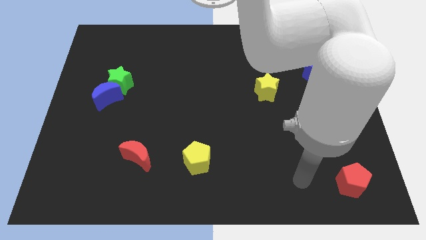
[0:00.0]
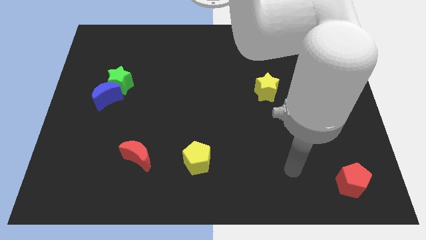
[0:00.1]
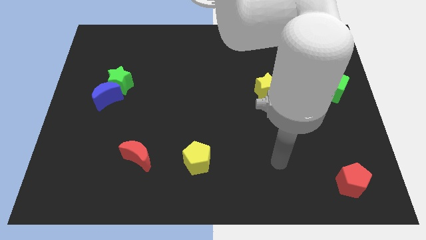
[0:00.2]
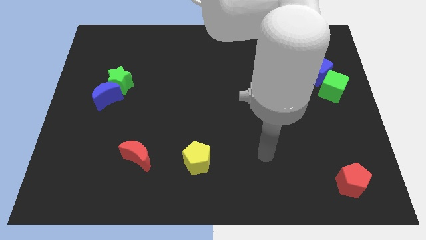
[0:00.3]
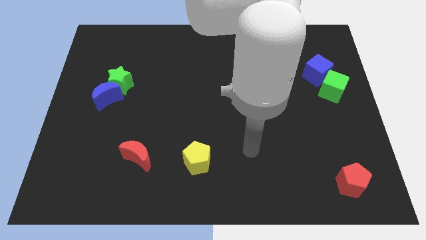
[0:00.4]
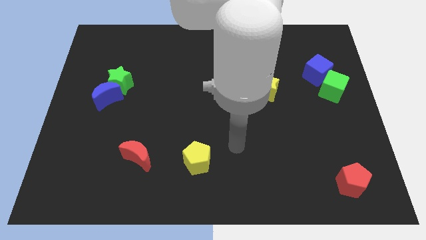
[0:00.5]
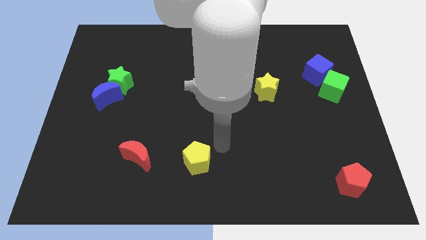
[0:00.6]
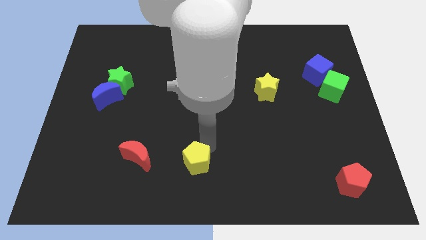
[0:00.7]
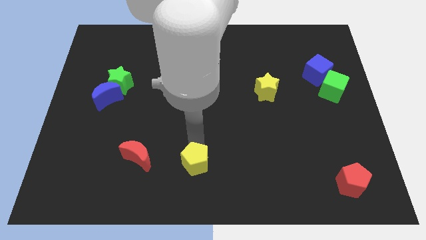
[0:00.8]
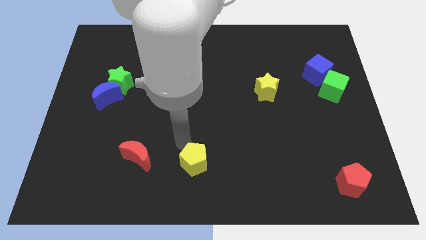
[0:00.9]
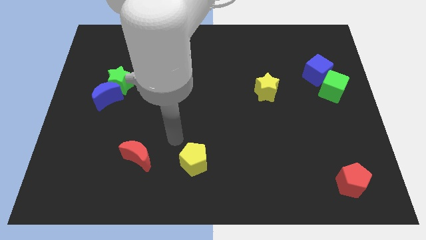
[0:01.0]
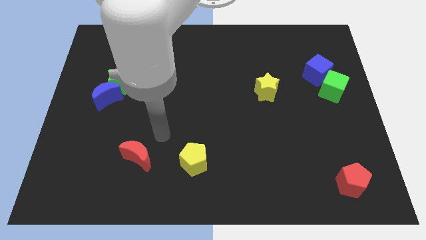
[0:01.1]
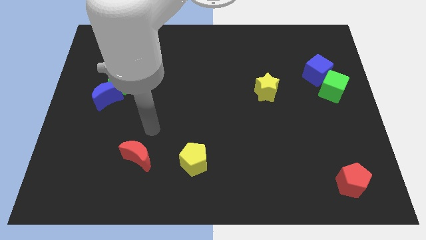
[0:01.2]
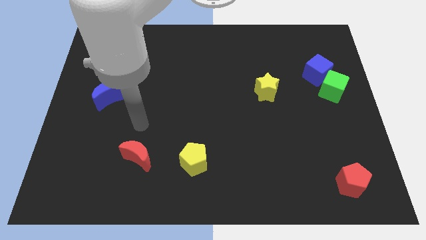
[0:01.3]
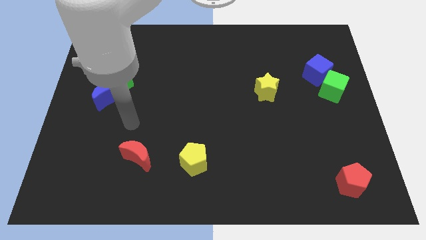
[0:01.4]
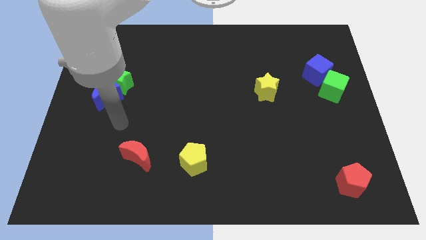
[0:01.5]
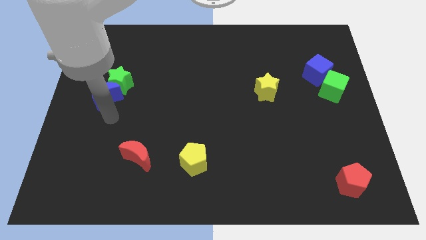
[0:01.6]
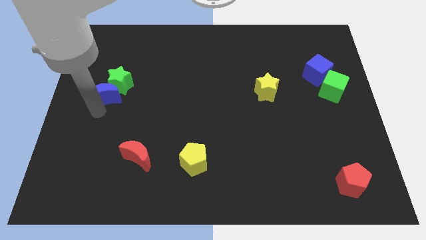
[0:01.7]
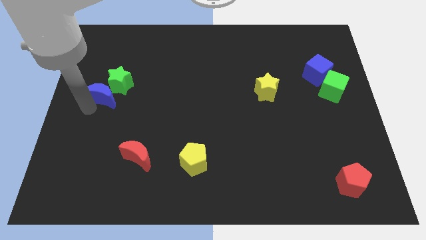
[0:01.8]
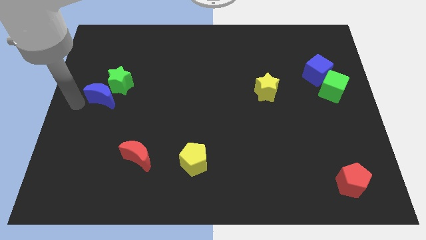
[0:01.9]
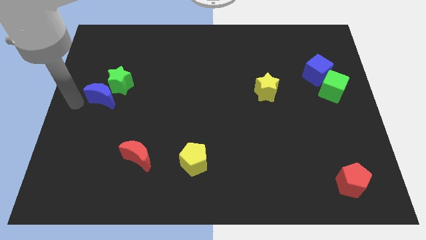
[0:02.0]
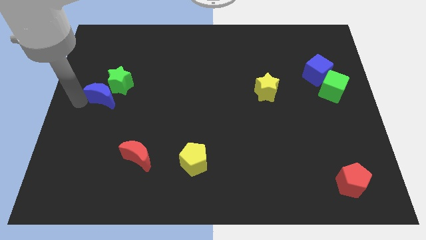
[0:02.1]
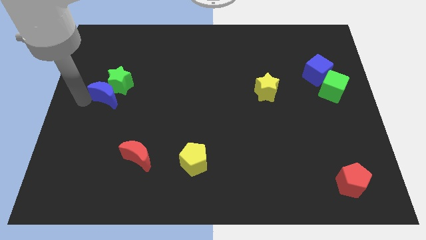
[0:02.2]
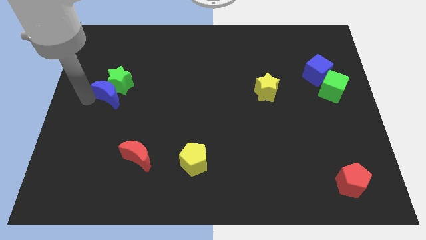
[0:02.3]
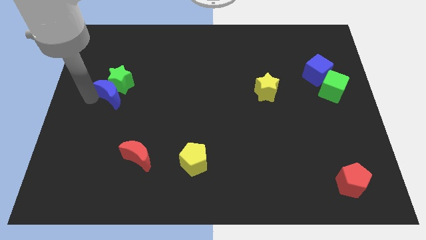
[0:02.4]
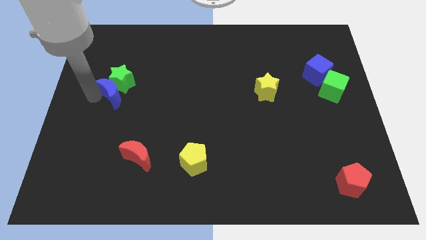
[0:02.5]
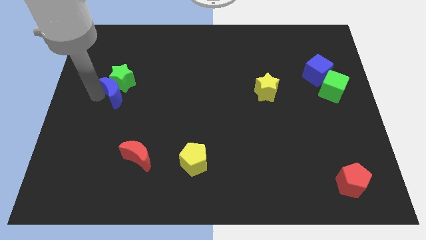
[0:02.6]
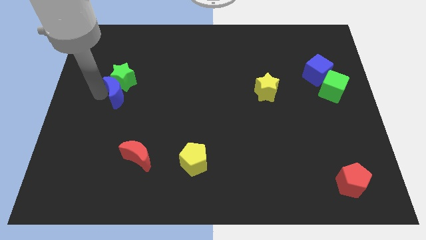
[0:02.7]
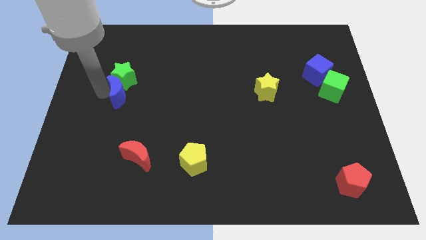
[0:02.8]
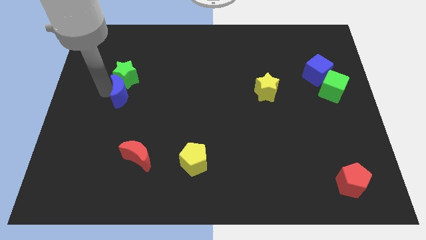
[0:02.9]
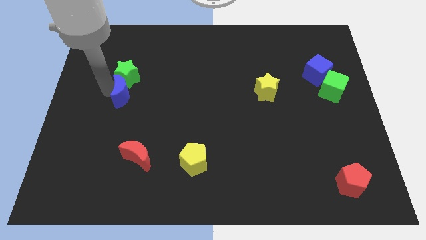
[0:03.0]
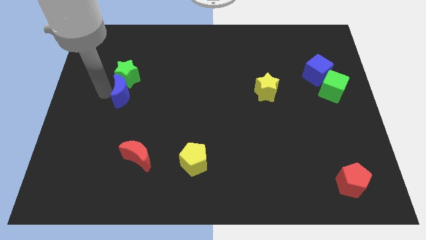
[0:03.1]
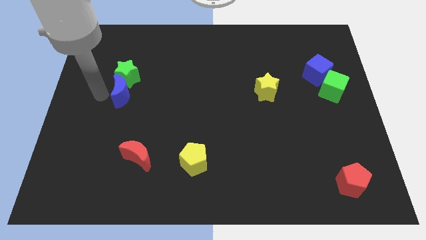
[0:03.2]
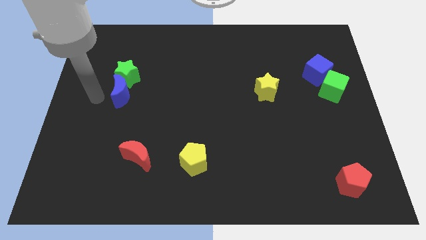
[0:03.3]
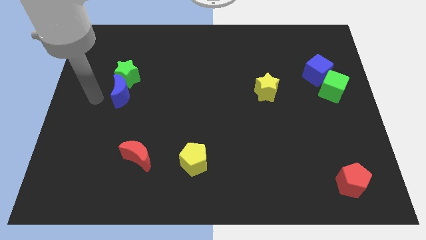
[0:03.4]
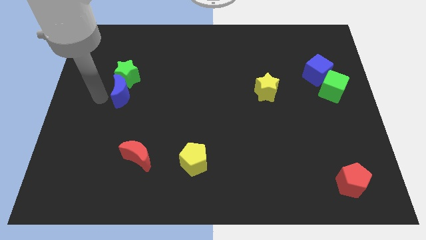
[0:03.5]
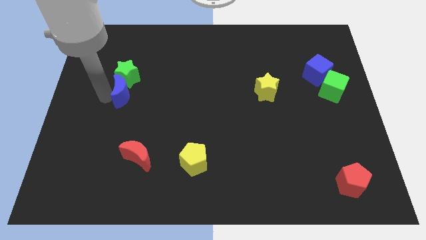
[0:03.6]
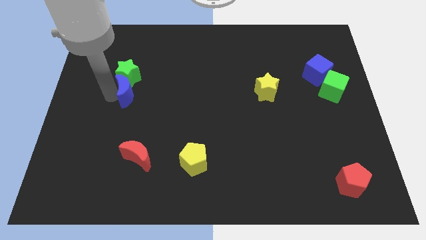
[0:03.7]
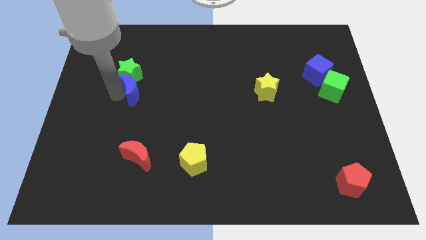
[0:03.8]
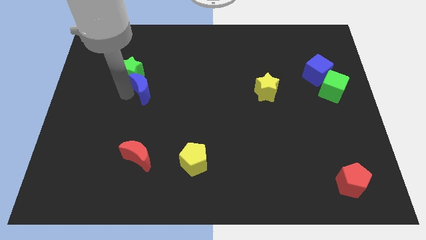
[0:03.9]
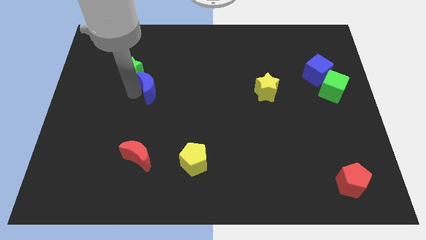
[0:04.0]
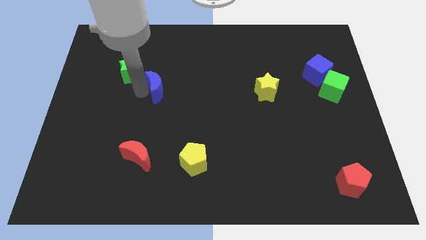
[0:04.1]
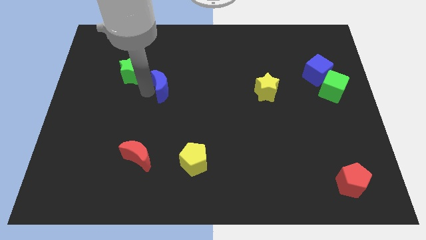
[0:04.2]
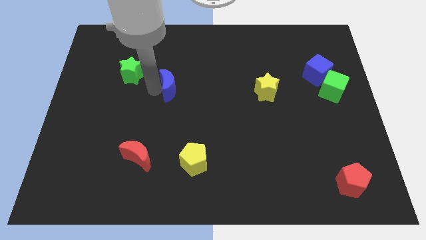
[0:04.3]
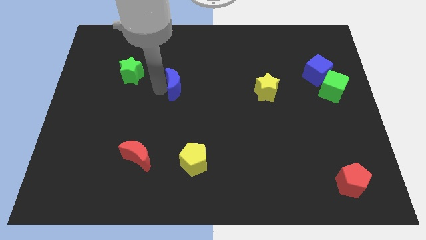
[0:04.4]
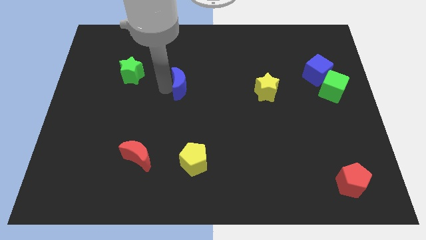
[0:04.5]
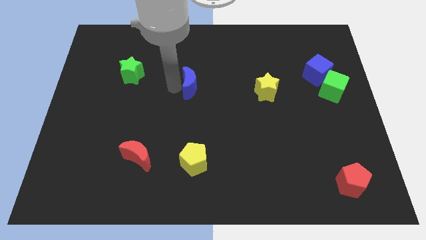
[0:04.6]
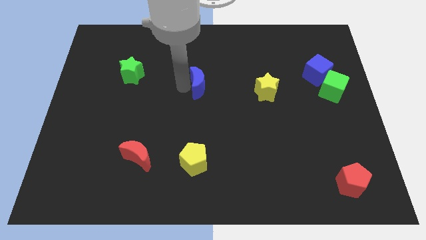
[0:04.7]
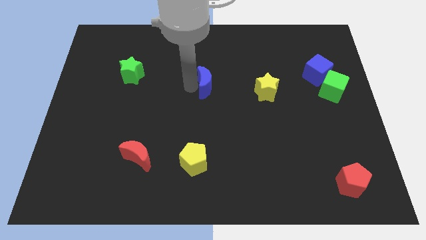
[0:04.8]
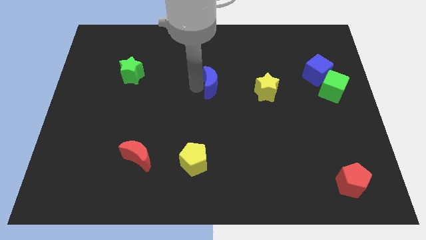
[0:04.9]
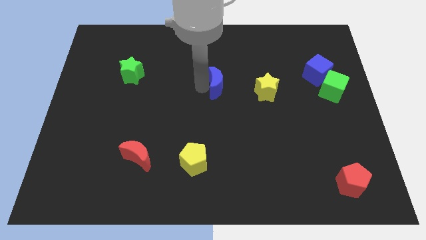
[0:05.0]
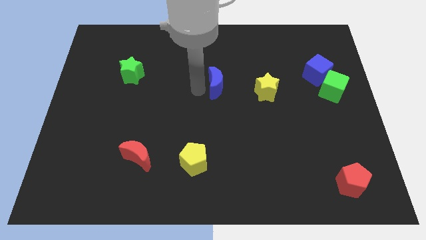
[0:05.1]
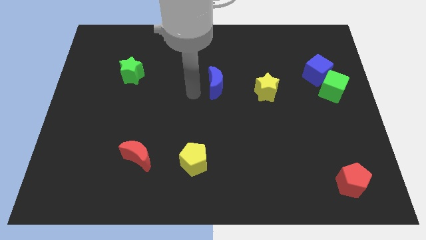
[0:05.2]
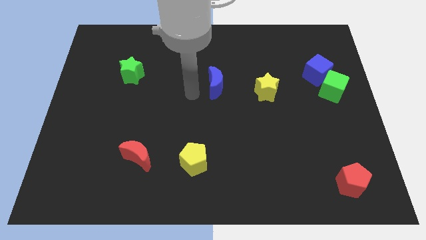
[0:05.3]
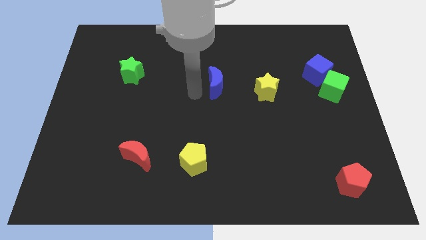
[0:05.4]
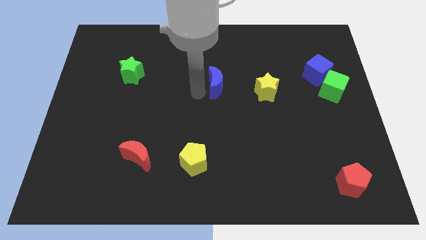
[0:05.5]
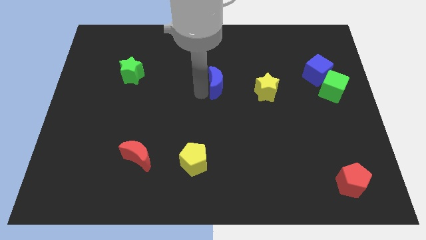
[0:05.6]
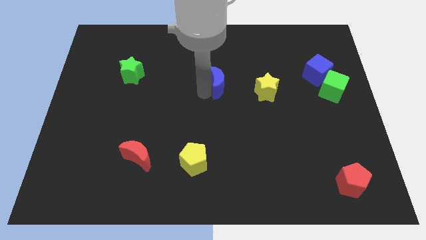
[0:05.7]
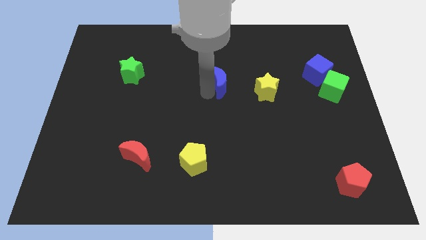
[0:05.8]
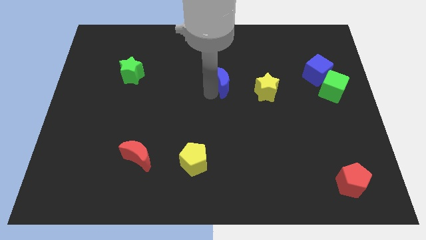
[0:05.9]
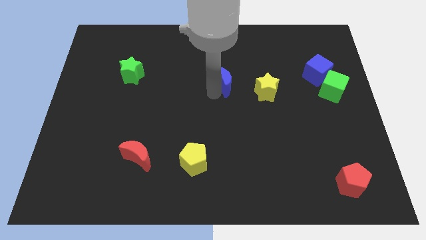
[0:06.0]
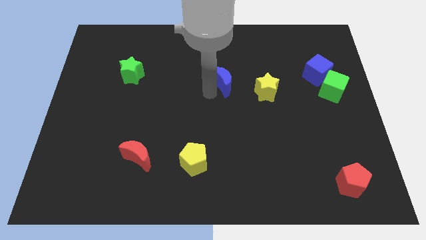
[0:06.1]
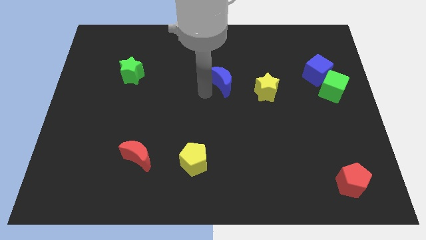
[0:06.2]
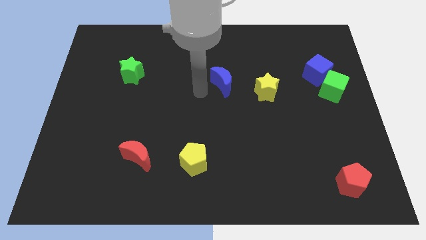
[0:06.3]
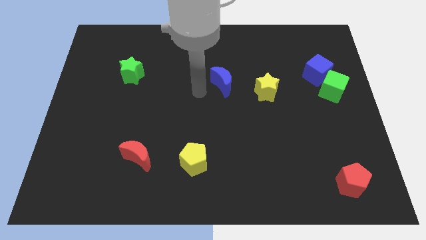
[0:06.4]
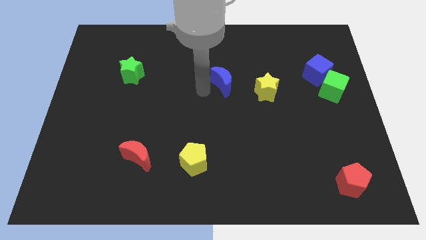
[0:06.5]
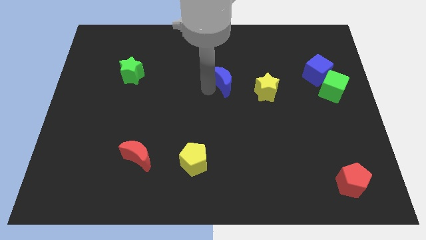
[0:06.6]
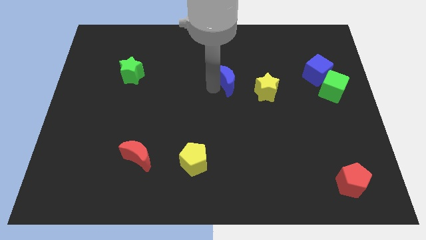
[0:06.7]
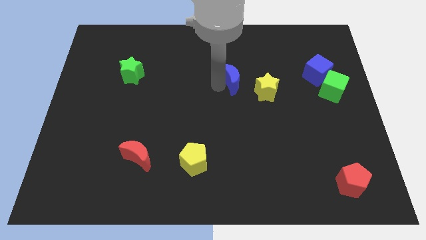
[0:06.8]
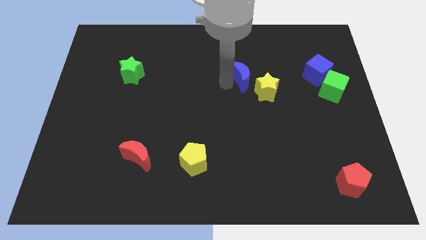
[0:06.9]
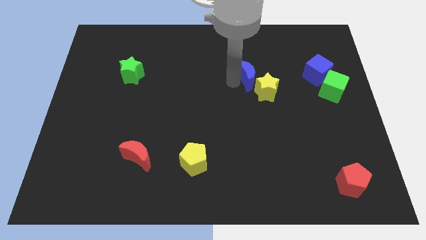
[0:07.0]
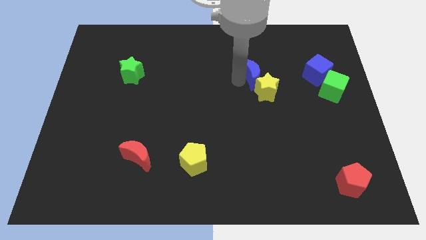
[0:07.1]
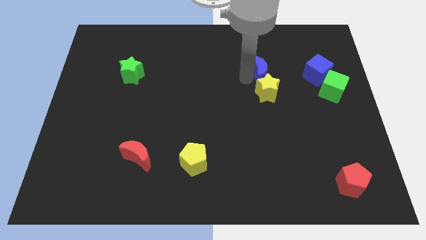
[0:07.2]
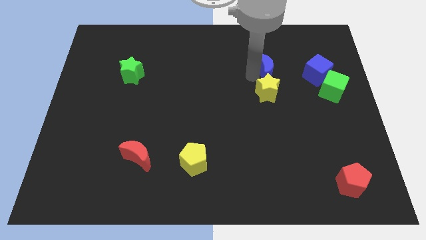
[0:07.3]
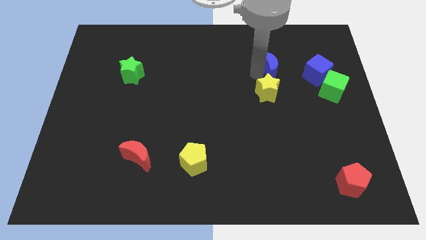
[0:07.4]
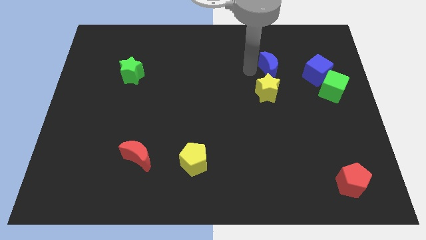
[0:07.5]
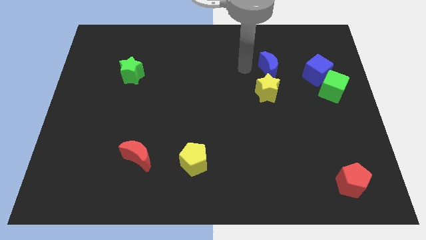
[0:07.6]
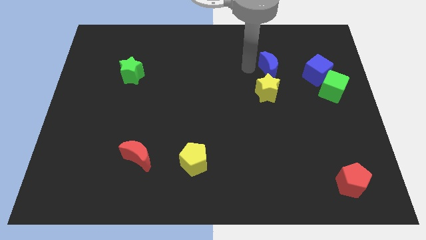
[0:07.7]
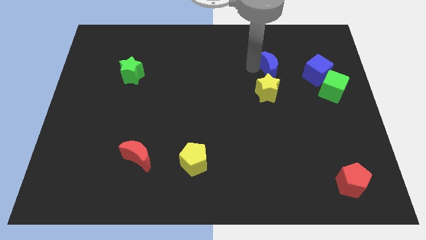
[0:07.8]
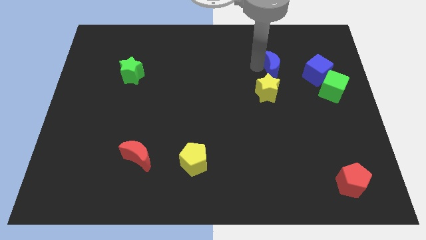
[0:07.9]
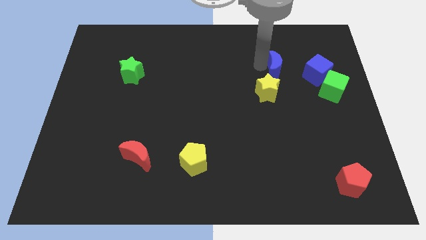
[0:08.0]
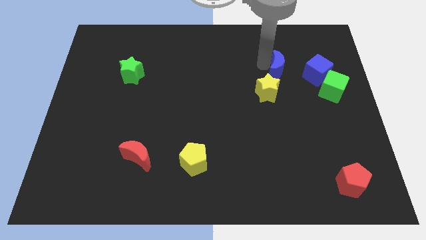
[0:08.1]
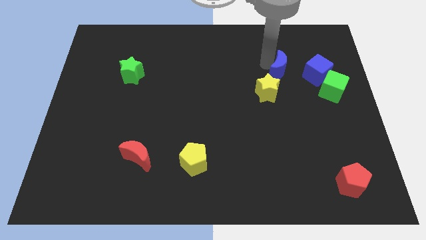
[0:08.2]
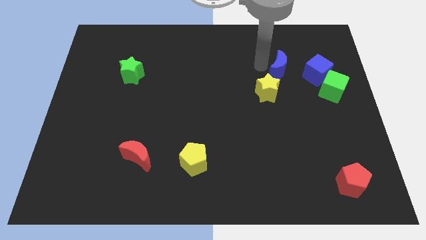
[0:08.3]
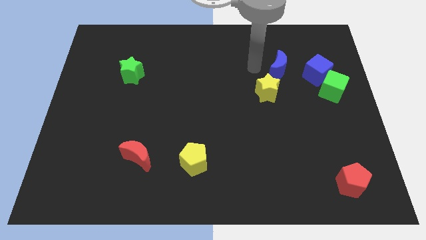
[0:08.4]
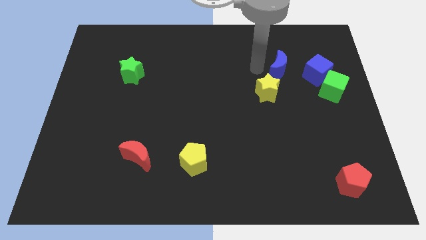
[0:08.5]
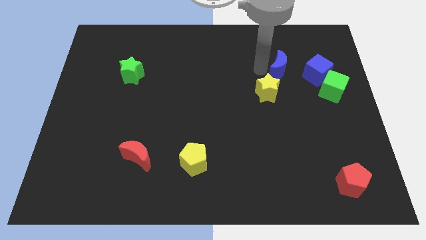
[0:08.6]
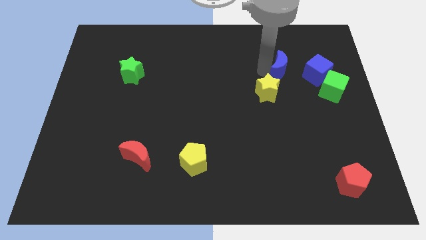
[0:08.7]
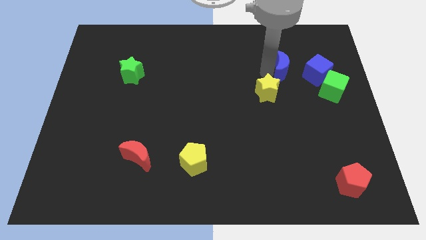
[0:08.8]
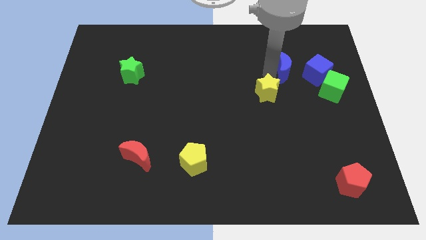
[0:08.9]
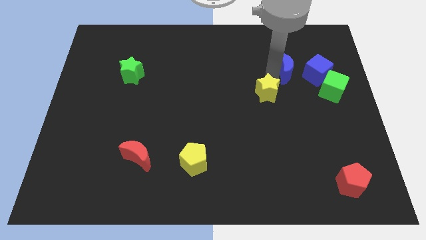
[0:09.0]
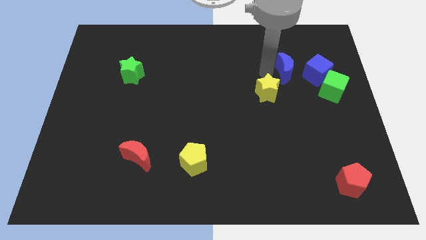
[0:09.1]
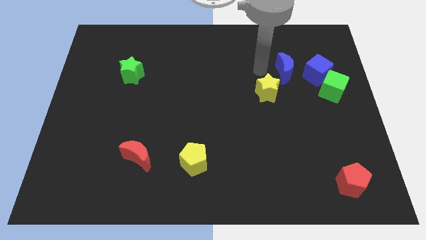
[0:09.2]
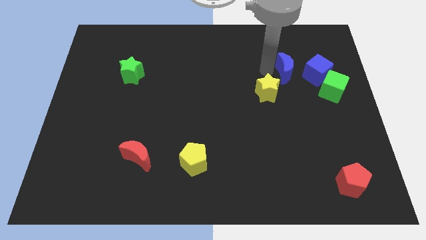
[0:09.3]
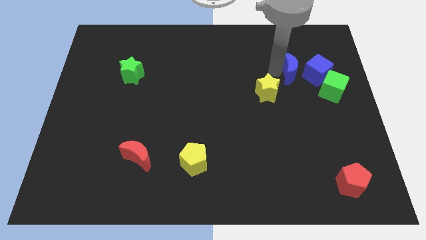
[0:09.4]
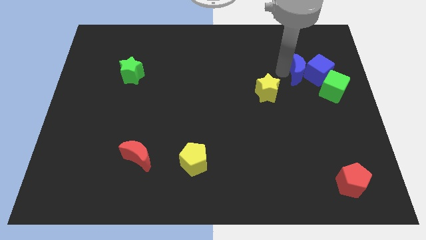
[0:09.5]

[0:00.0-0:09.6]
push the blue moon to the blue cube
